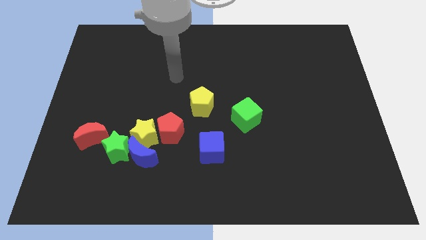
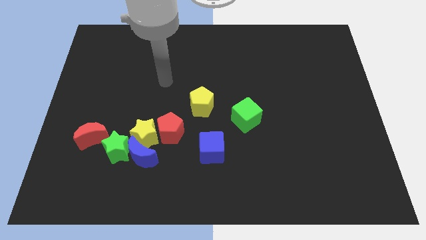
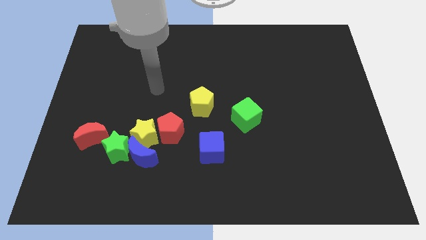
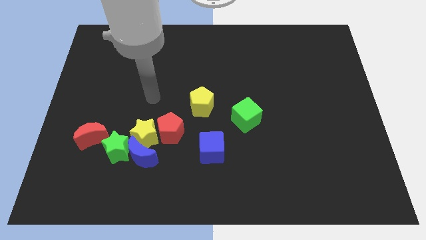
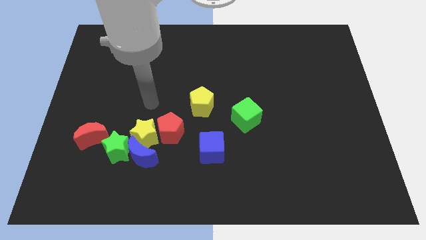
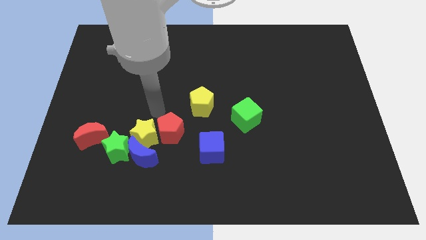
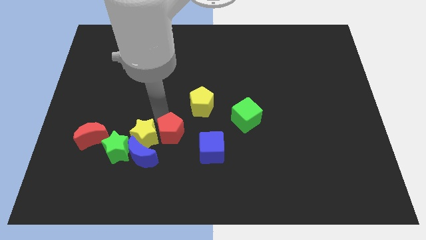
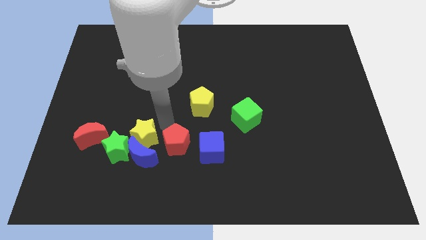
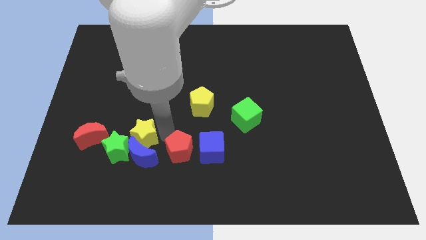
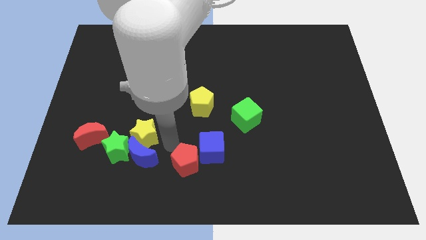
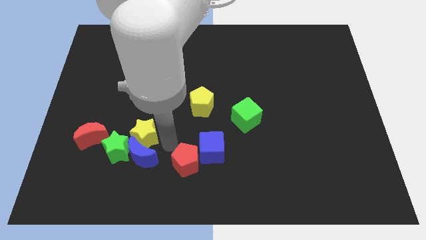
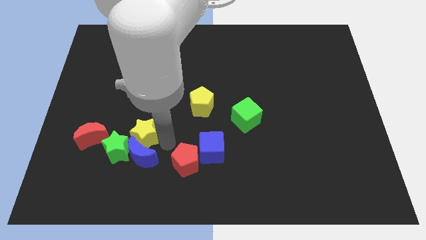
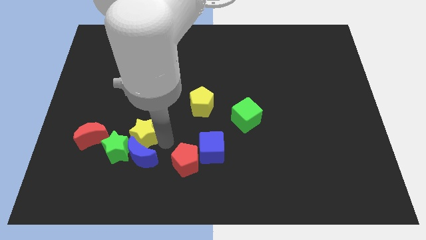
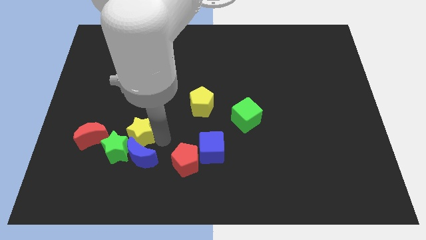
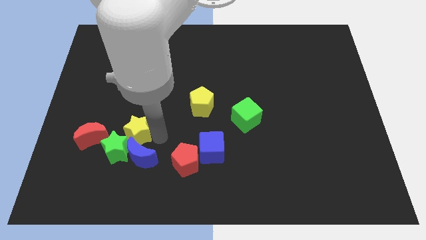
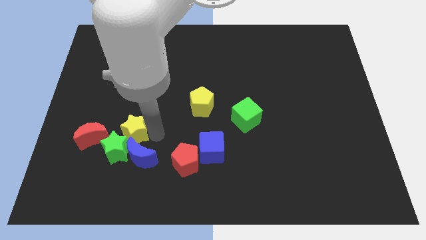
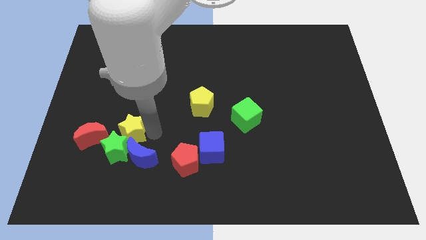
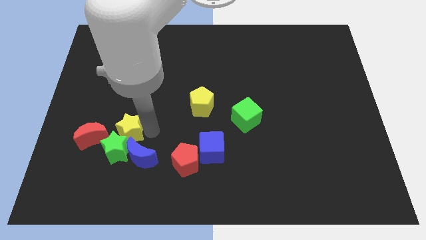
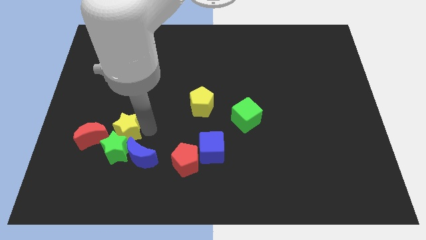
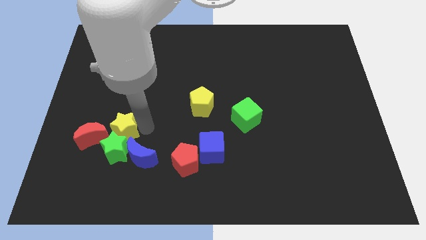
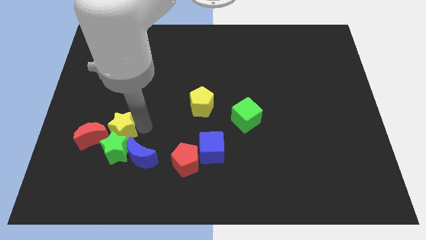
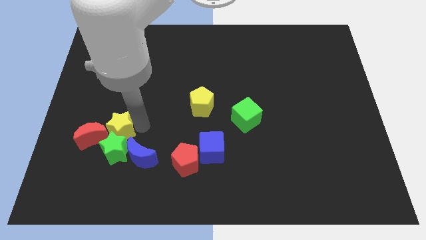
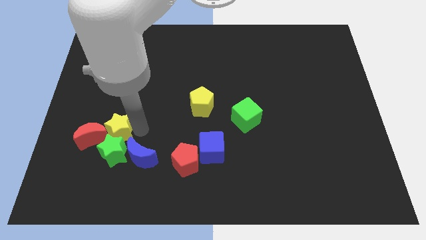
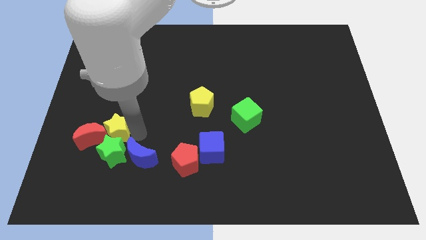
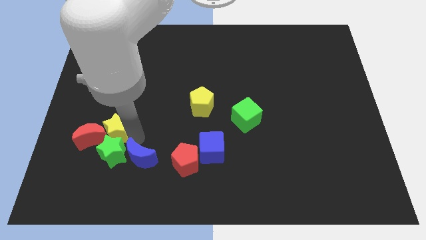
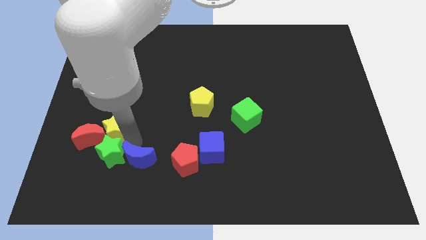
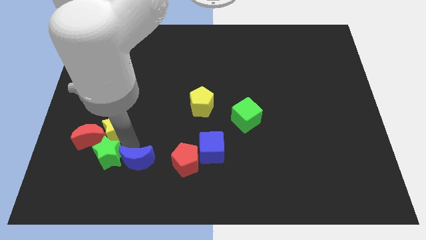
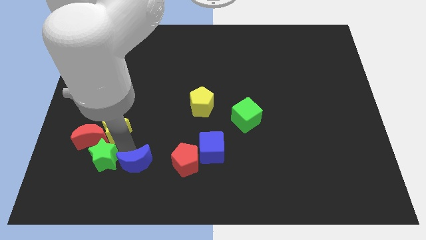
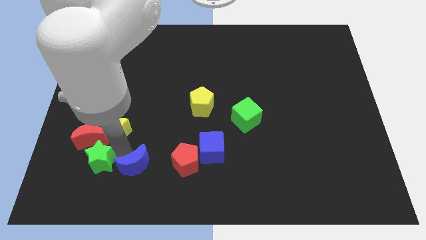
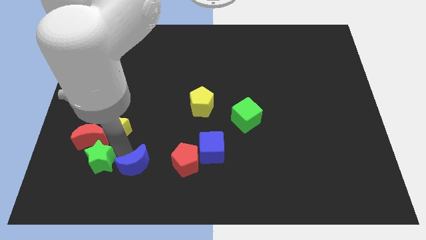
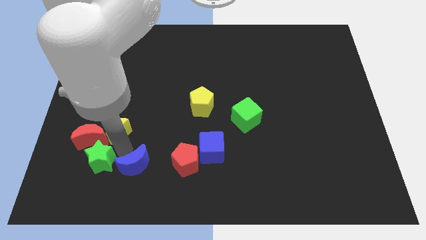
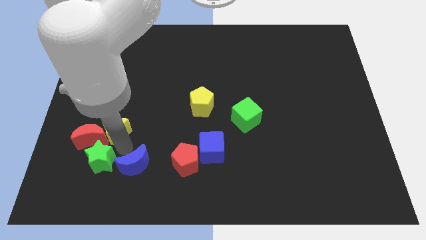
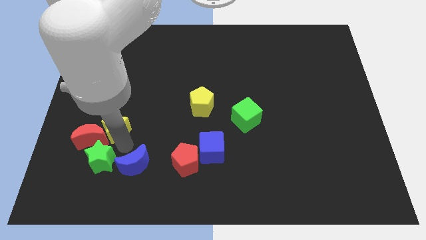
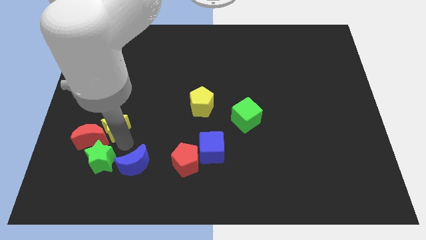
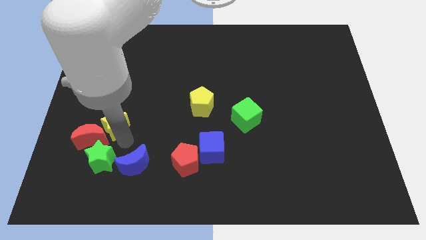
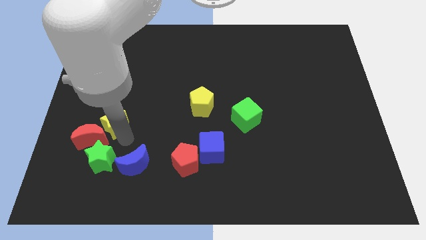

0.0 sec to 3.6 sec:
slightly push the yellow star up and then to the left

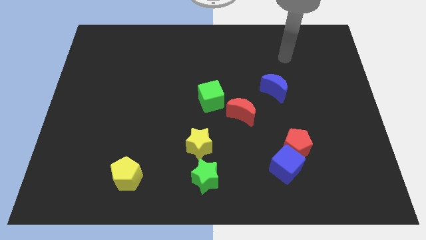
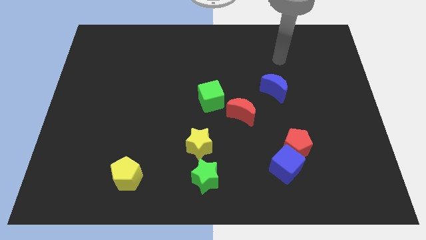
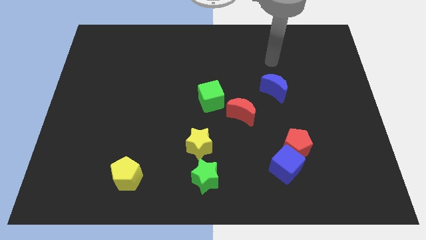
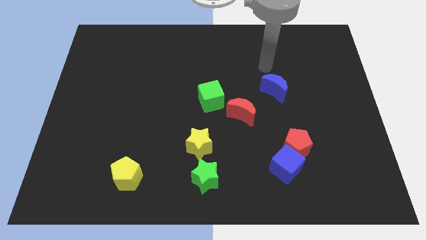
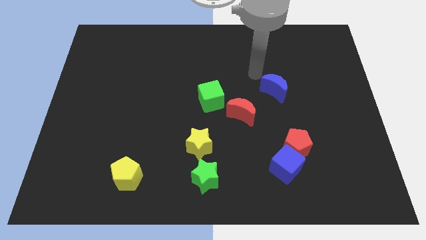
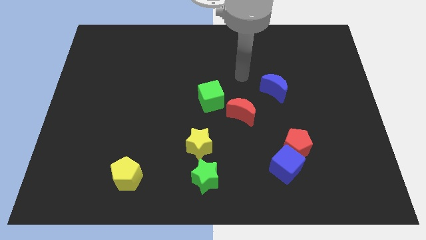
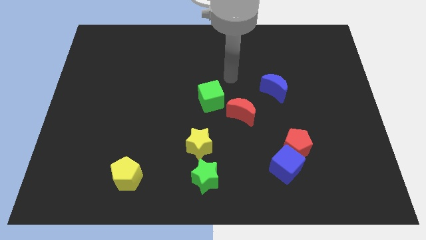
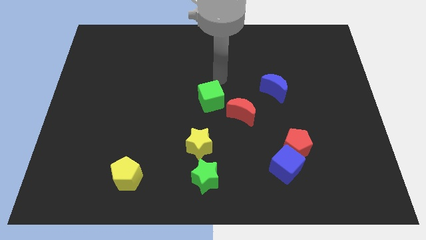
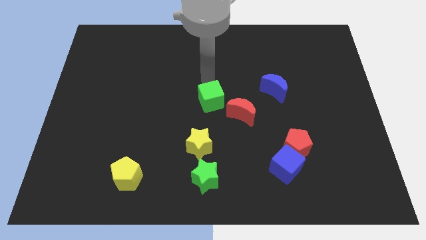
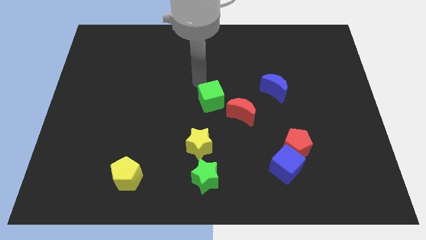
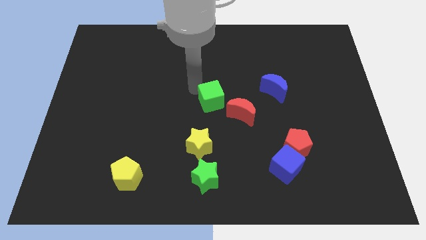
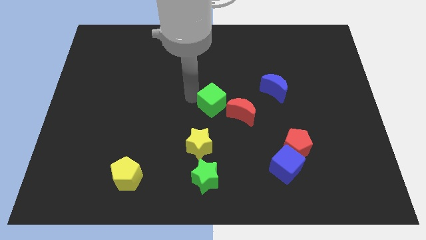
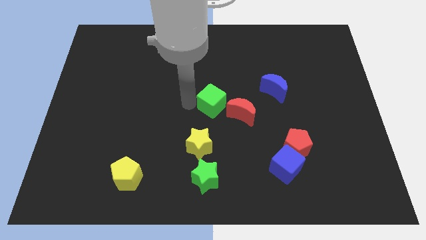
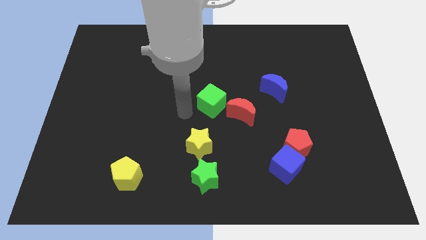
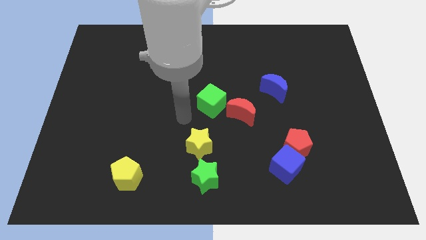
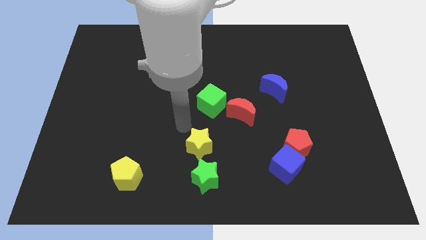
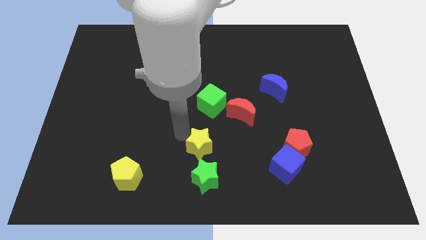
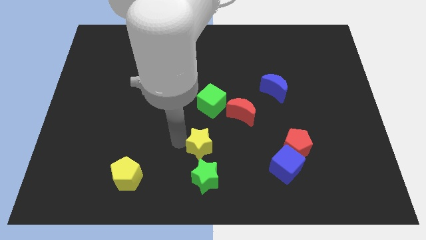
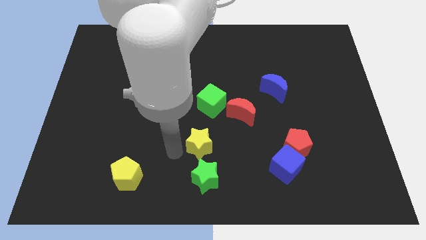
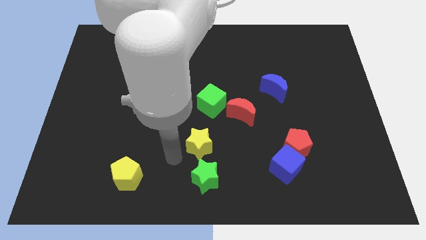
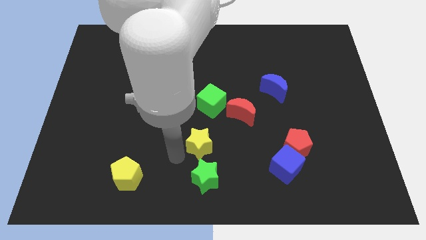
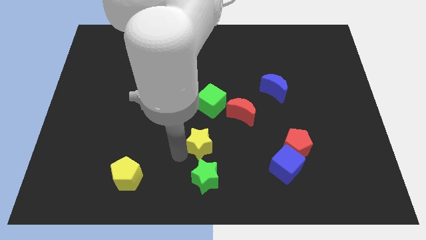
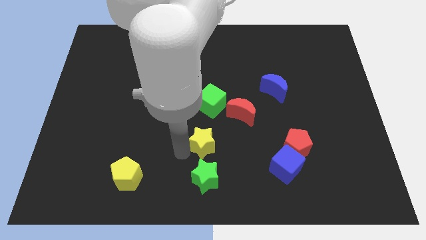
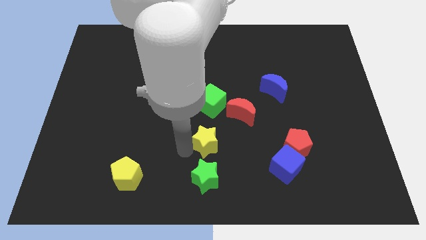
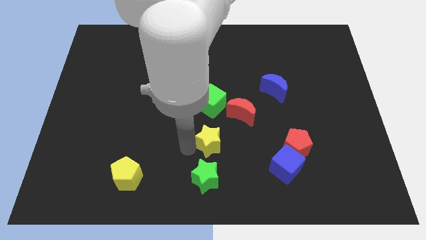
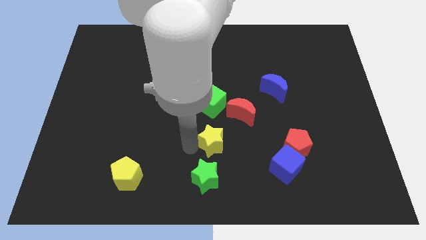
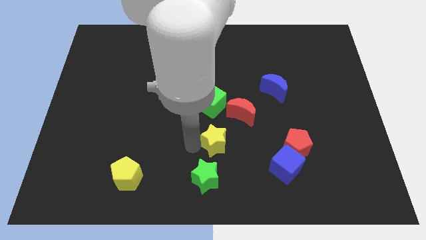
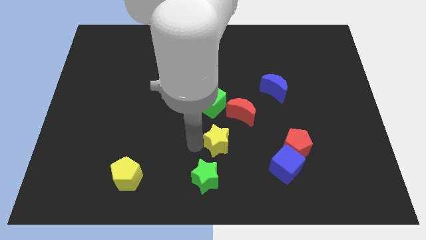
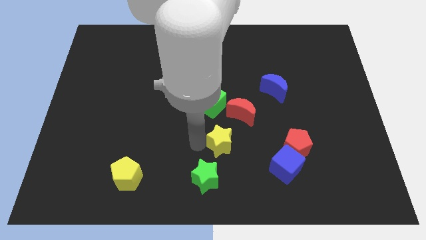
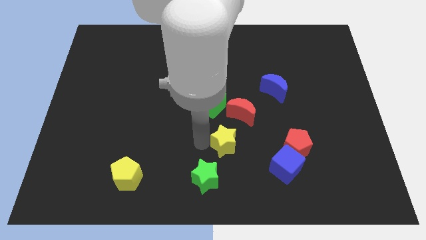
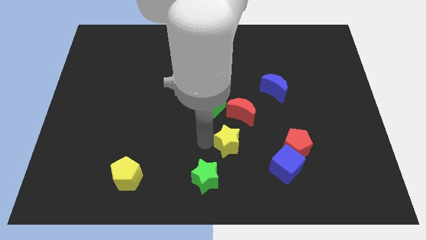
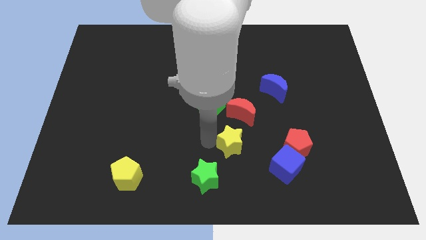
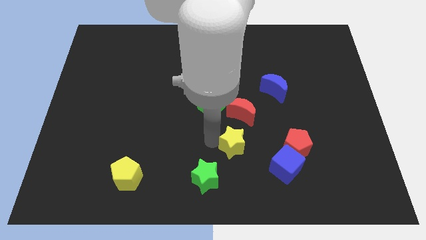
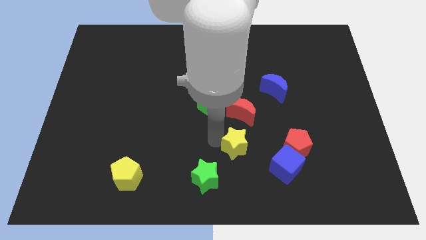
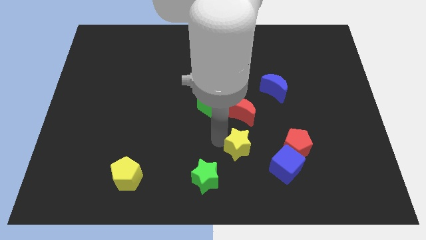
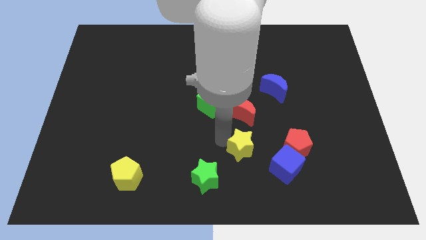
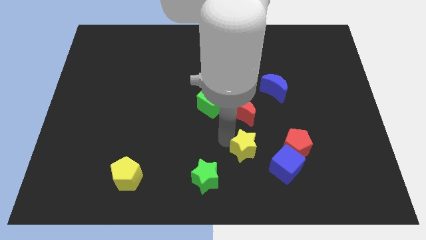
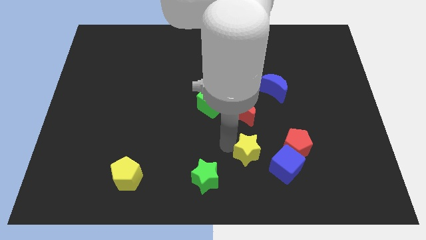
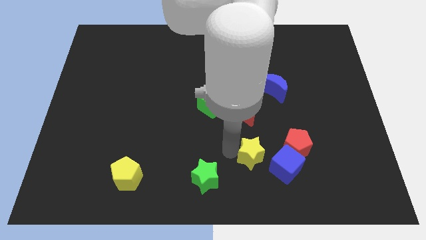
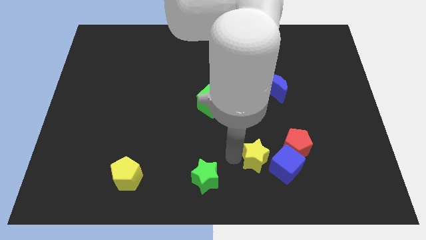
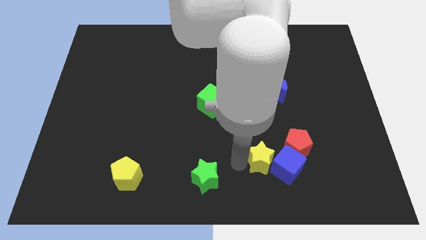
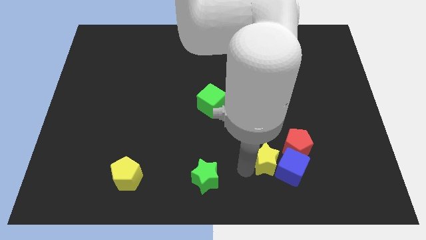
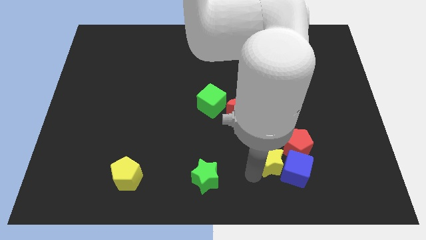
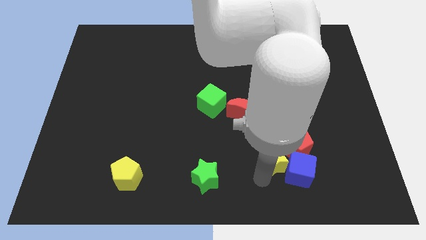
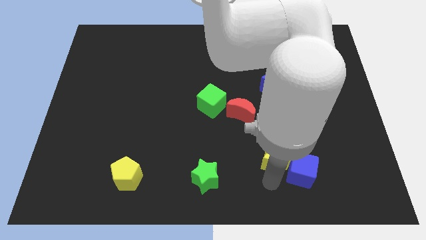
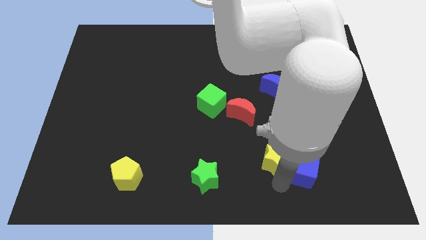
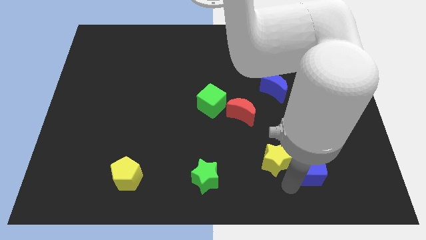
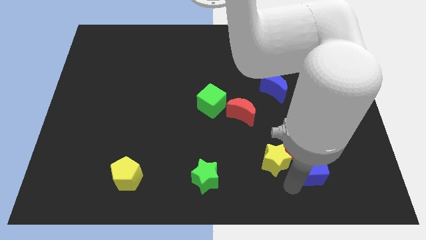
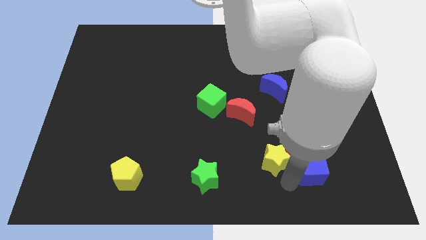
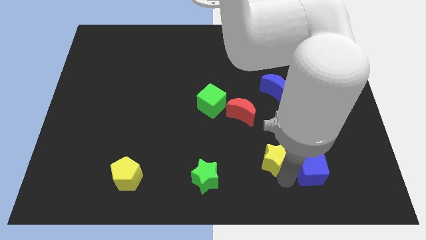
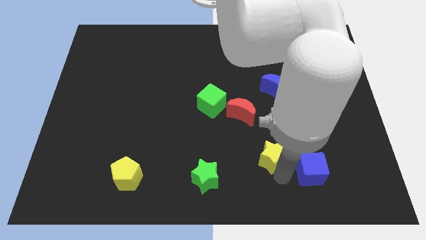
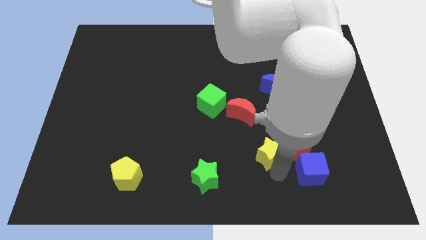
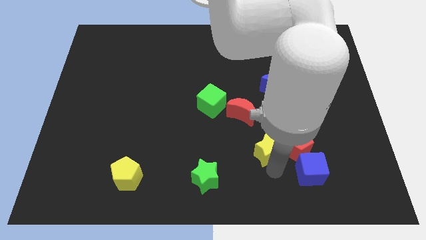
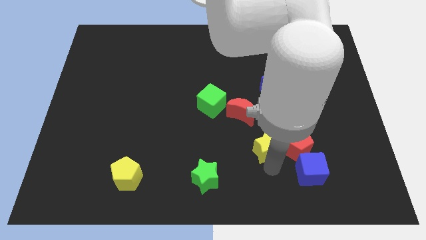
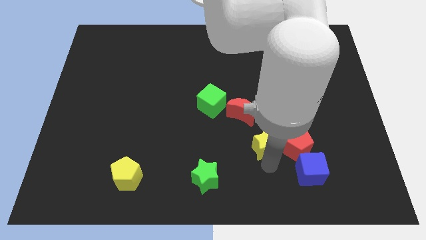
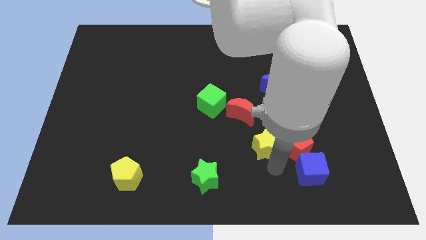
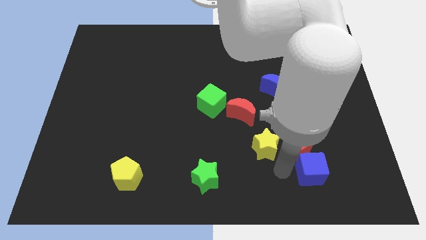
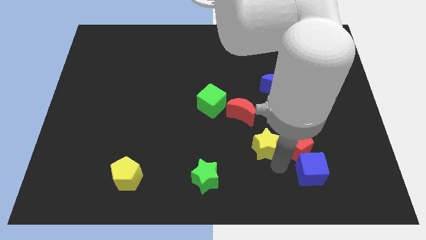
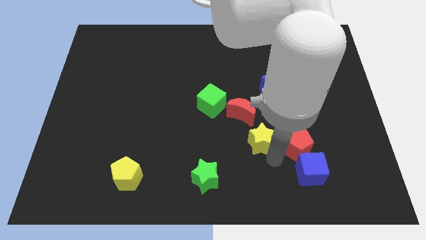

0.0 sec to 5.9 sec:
slide the yellow star slightly up and right diagonally
